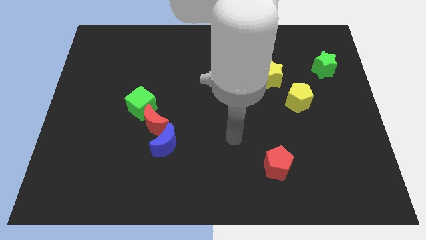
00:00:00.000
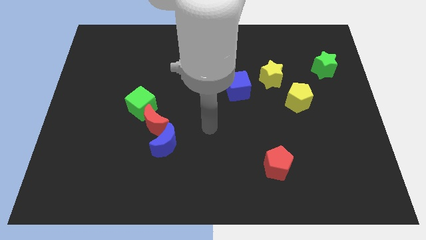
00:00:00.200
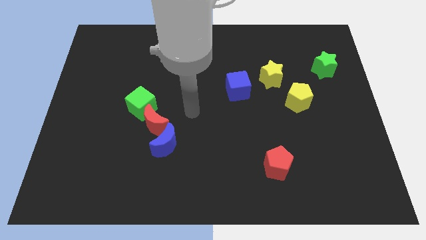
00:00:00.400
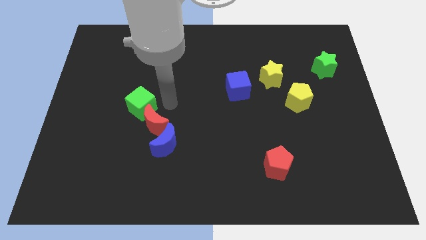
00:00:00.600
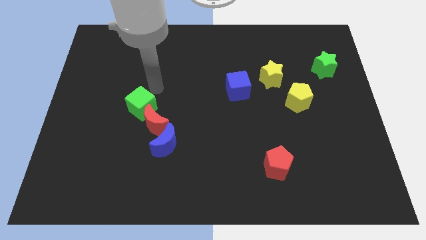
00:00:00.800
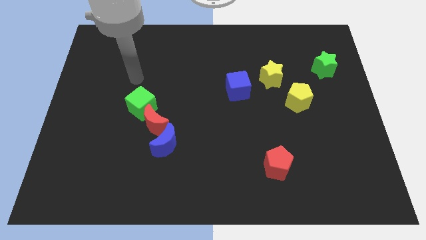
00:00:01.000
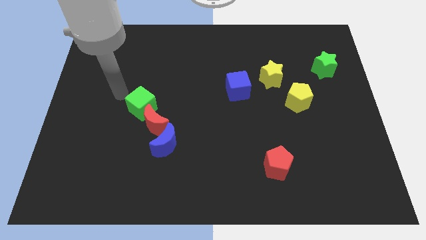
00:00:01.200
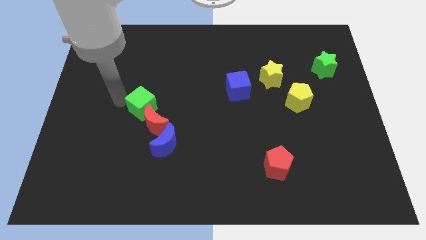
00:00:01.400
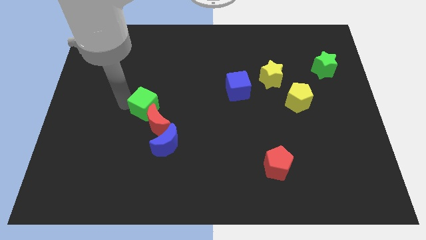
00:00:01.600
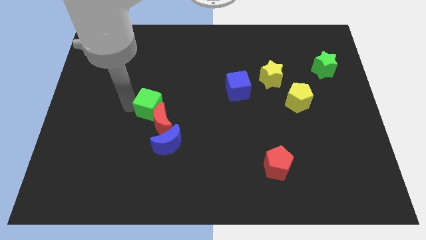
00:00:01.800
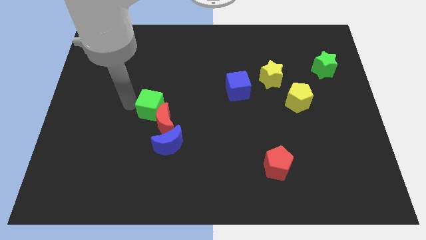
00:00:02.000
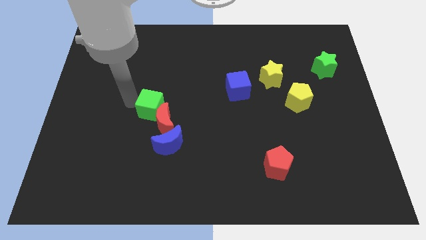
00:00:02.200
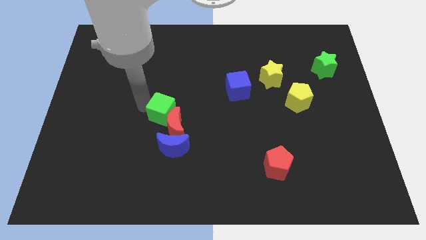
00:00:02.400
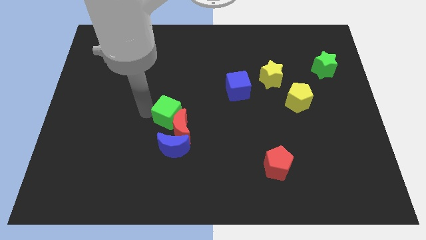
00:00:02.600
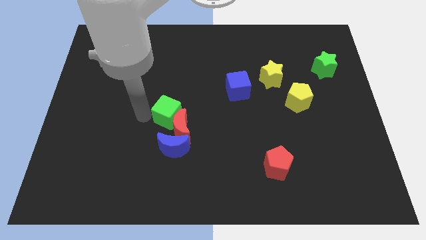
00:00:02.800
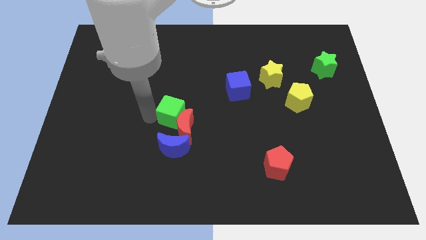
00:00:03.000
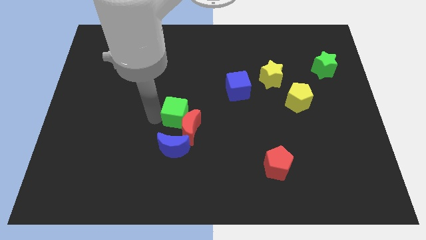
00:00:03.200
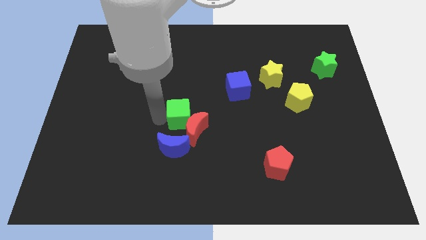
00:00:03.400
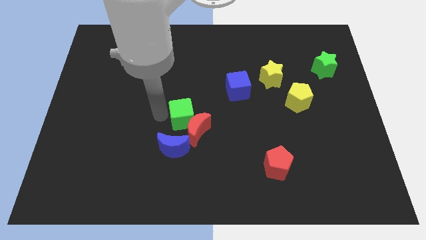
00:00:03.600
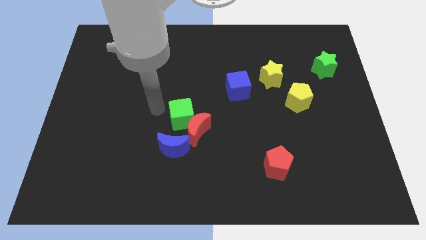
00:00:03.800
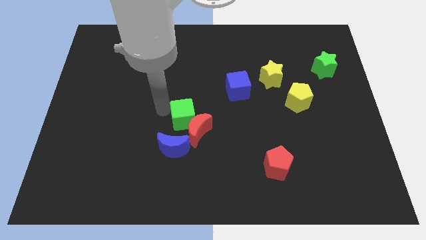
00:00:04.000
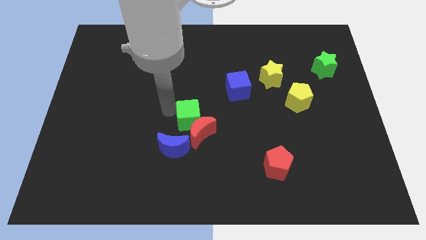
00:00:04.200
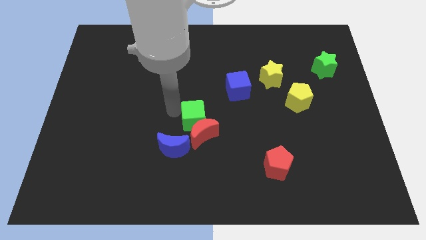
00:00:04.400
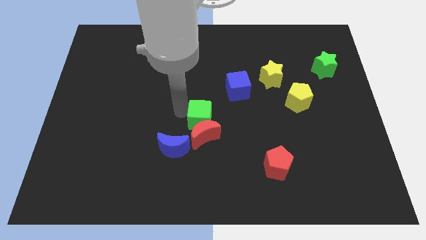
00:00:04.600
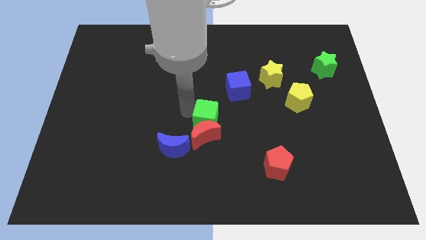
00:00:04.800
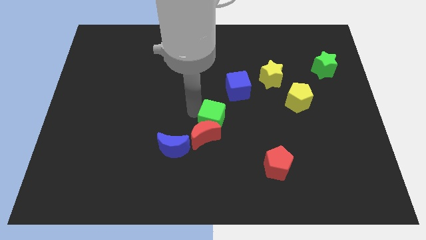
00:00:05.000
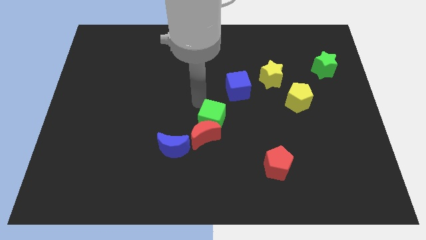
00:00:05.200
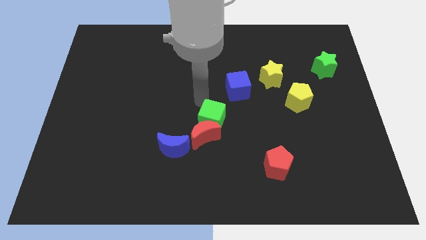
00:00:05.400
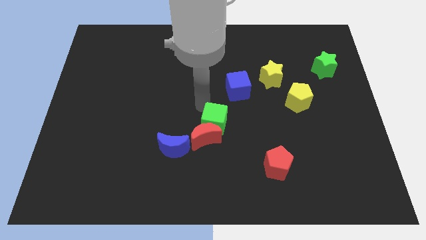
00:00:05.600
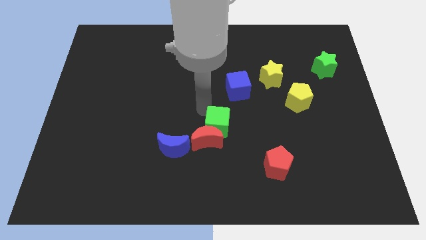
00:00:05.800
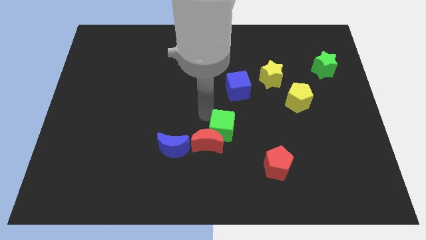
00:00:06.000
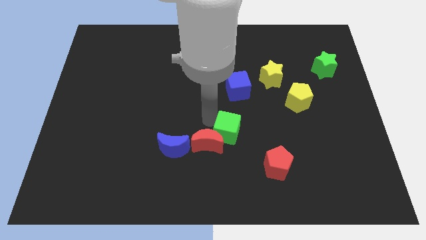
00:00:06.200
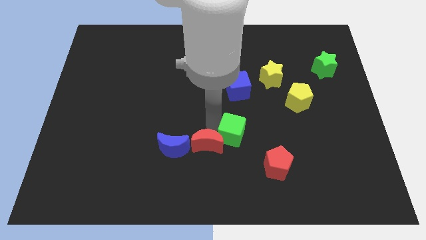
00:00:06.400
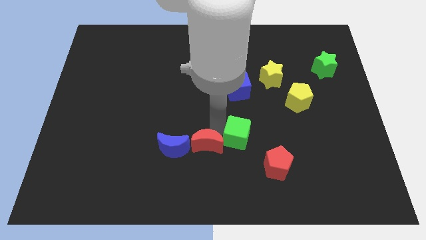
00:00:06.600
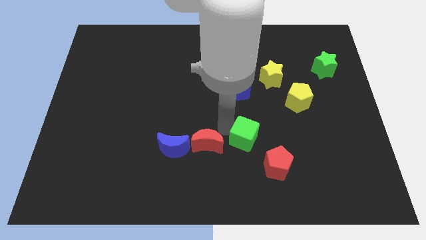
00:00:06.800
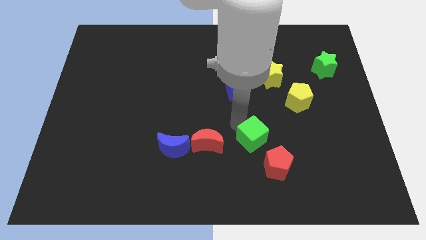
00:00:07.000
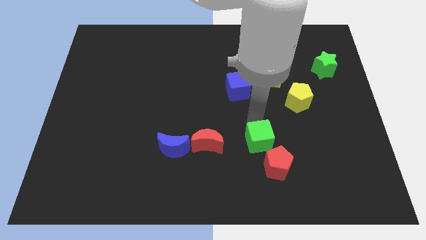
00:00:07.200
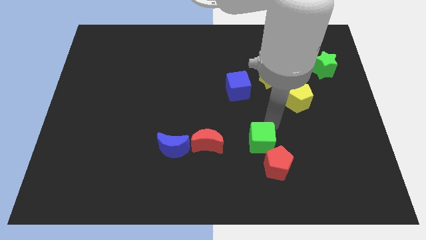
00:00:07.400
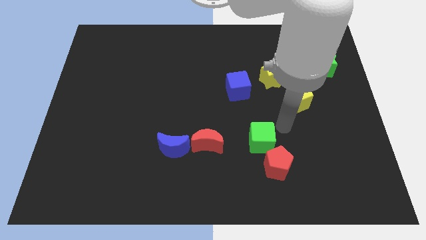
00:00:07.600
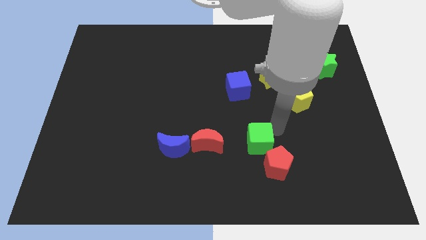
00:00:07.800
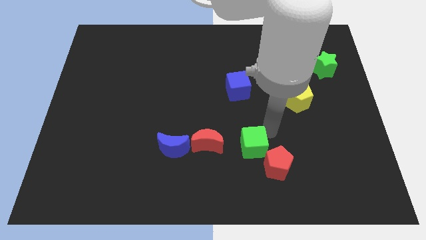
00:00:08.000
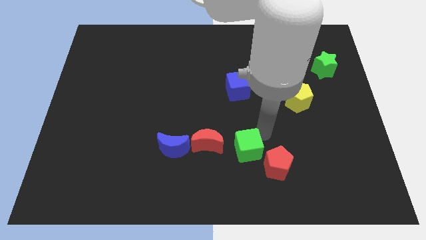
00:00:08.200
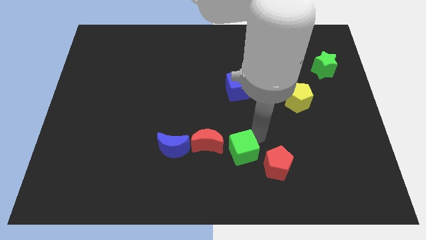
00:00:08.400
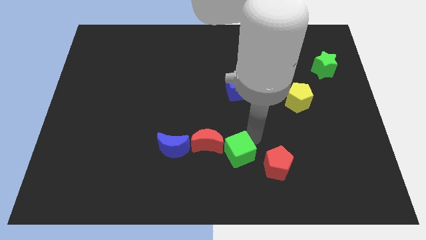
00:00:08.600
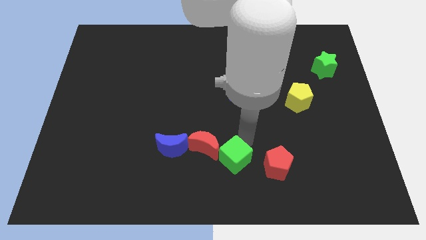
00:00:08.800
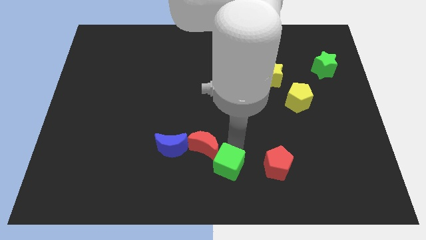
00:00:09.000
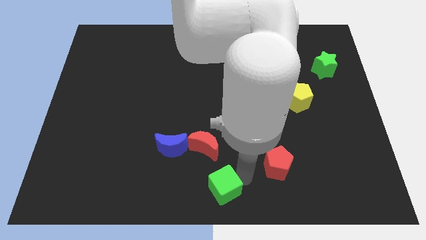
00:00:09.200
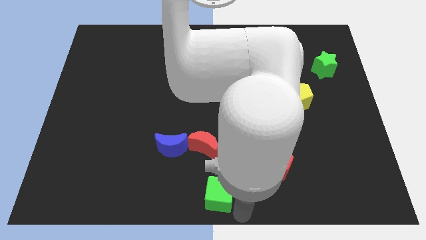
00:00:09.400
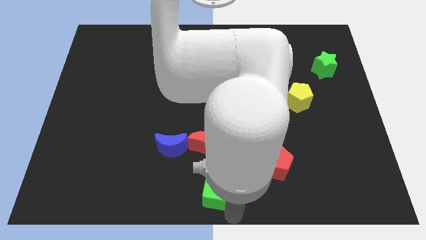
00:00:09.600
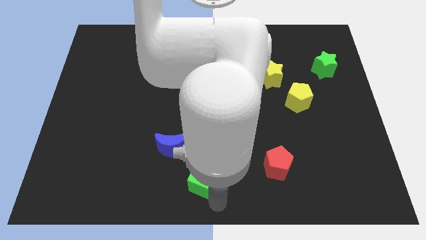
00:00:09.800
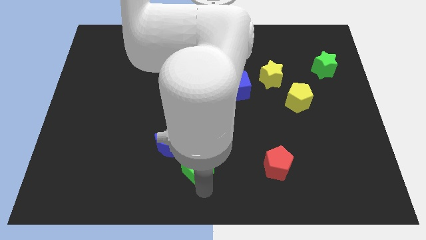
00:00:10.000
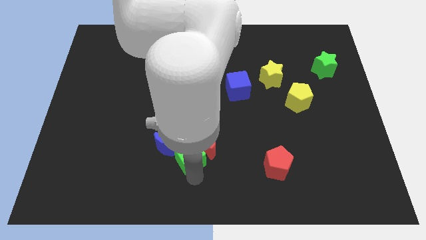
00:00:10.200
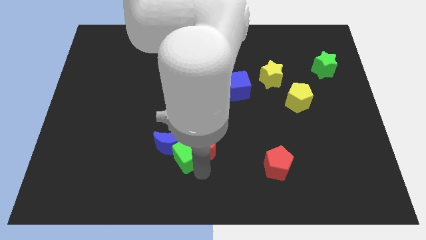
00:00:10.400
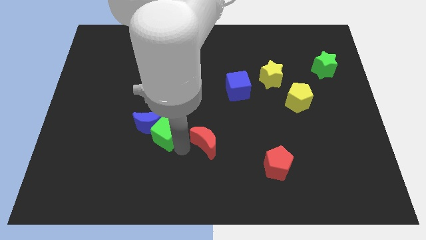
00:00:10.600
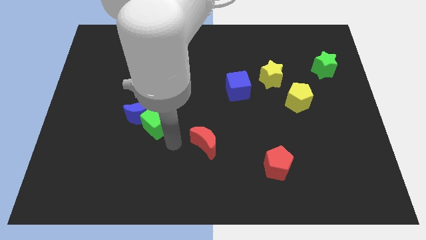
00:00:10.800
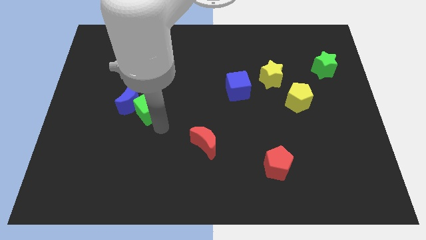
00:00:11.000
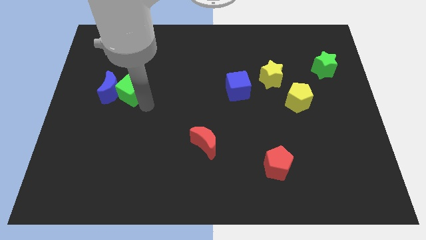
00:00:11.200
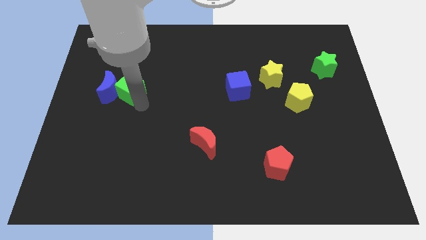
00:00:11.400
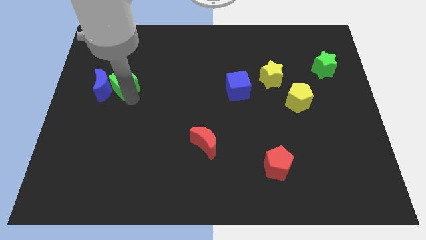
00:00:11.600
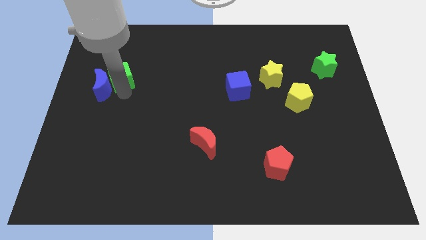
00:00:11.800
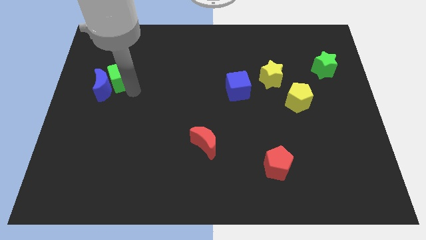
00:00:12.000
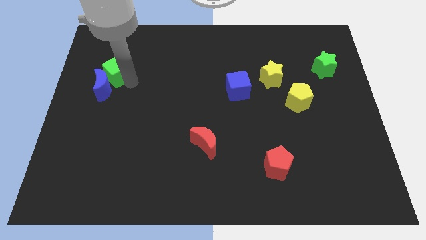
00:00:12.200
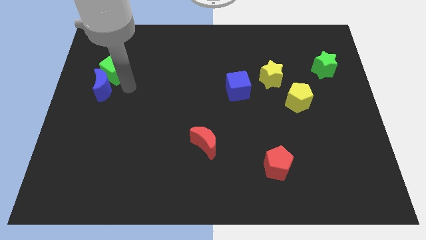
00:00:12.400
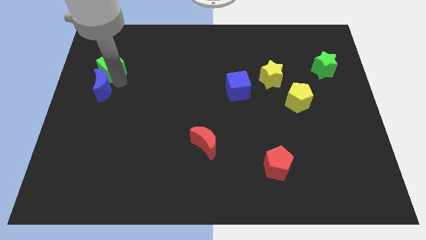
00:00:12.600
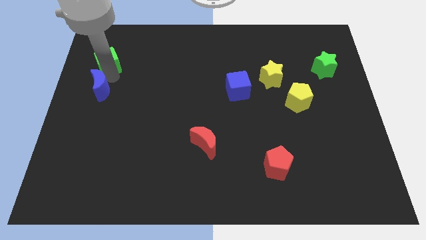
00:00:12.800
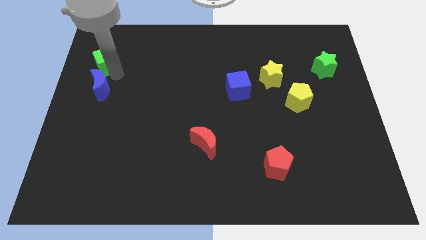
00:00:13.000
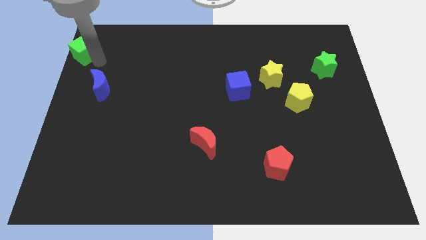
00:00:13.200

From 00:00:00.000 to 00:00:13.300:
push the green cube to the top left corner

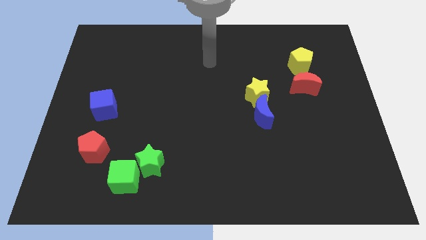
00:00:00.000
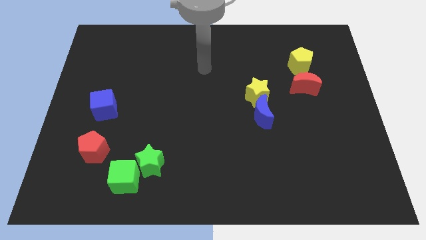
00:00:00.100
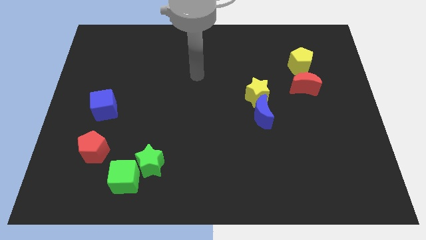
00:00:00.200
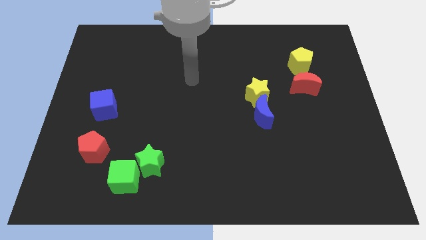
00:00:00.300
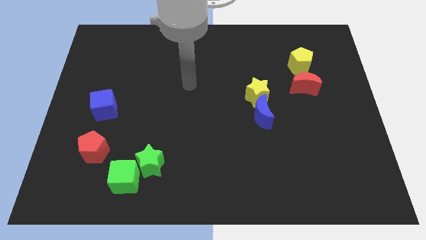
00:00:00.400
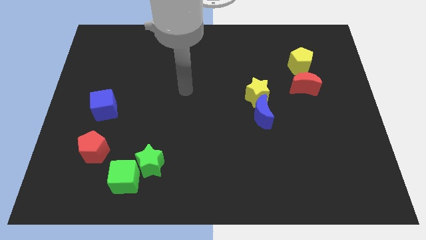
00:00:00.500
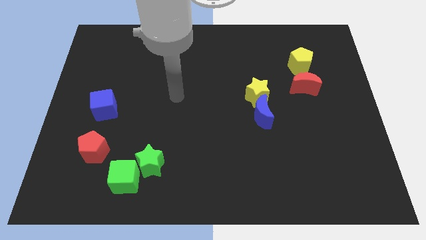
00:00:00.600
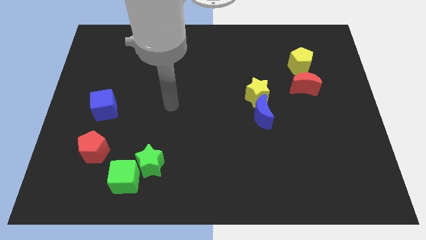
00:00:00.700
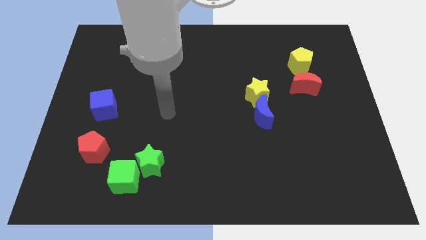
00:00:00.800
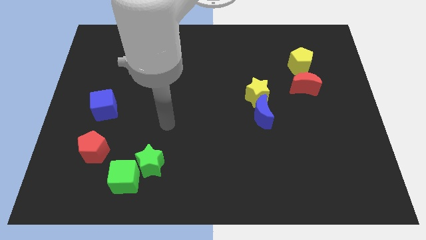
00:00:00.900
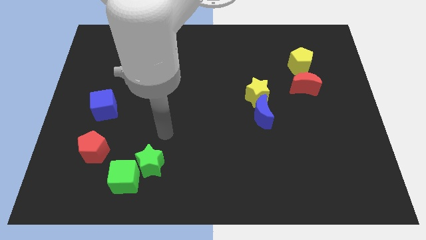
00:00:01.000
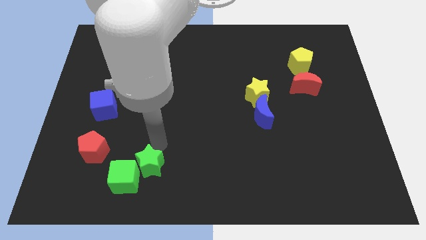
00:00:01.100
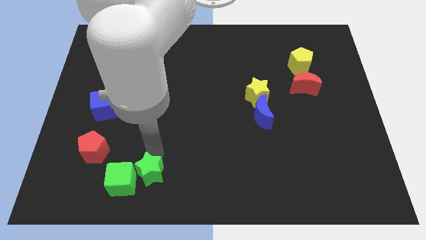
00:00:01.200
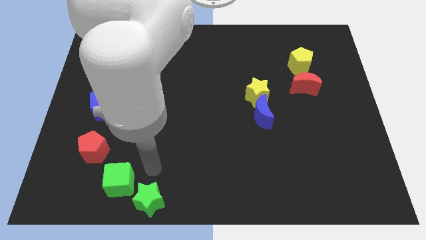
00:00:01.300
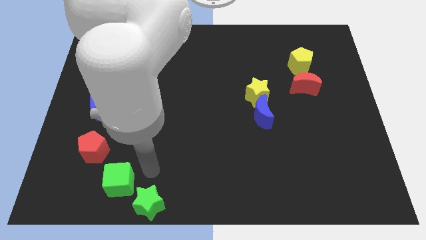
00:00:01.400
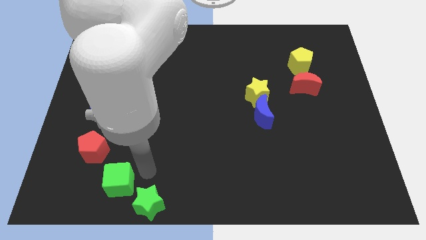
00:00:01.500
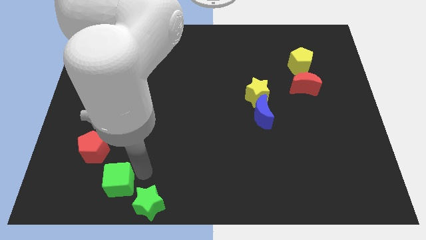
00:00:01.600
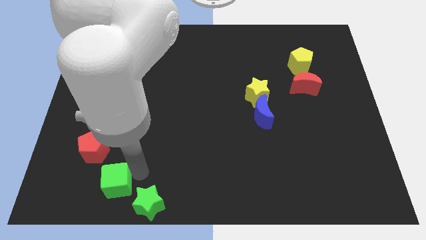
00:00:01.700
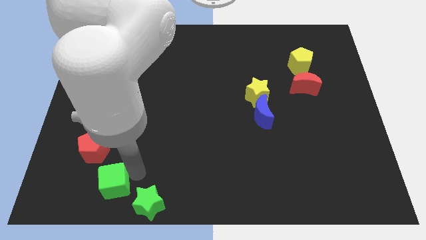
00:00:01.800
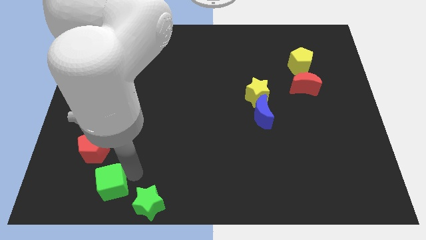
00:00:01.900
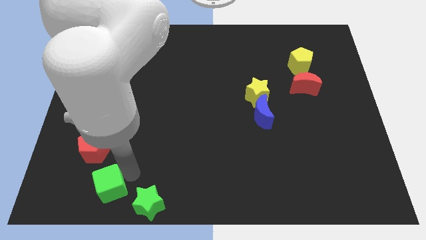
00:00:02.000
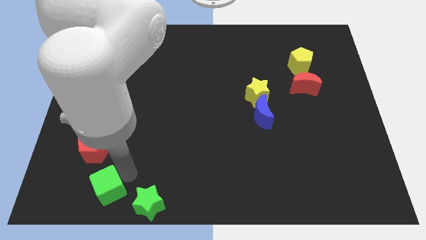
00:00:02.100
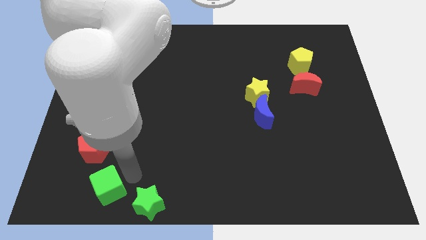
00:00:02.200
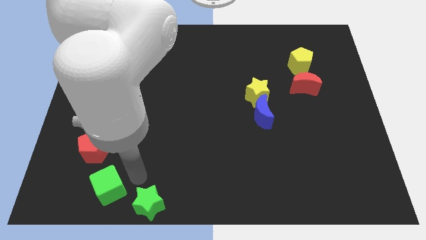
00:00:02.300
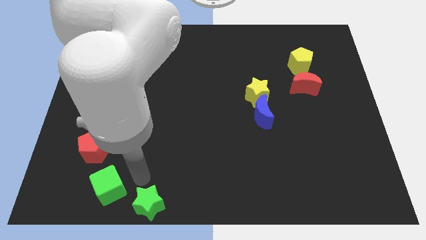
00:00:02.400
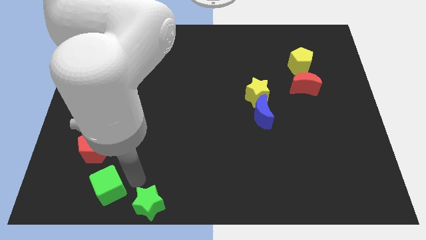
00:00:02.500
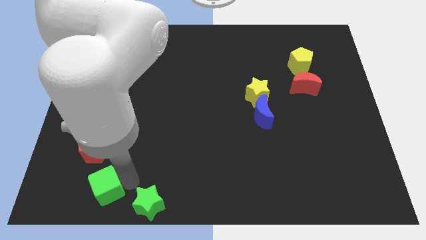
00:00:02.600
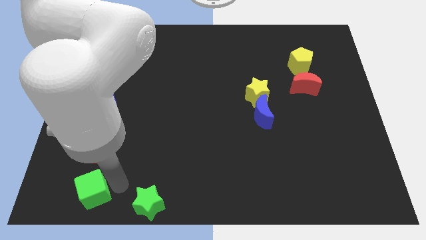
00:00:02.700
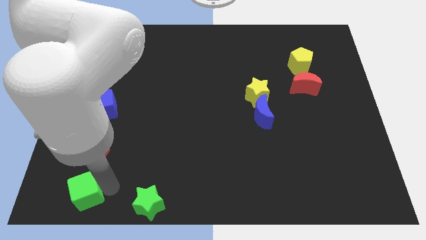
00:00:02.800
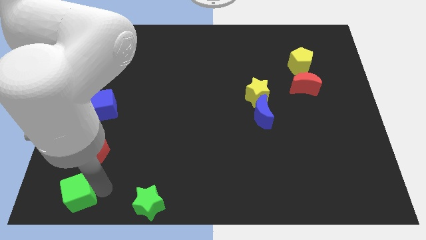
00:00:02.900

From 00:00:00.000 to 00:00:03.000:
slide the green cube to the bottom left
